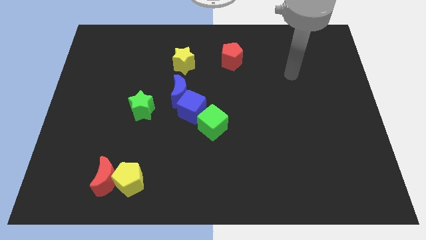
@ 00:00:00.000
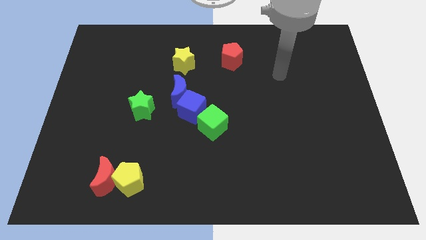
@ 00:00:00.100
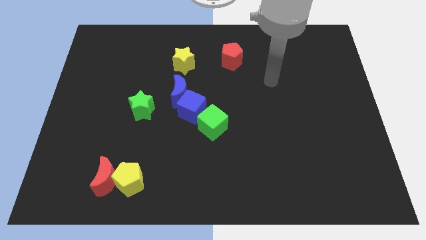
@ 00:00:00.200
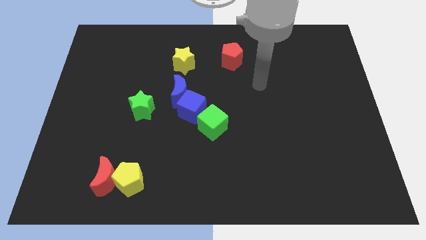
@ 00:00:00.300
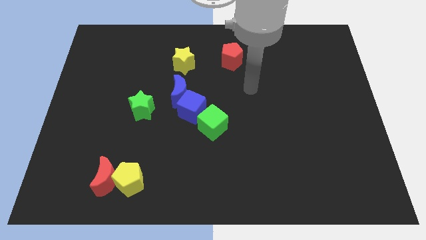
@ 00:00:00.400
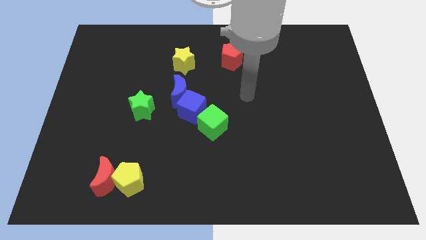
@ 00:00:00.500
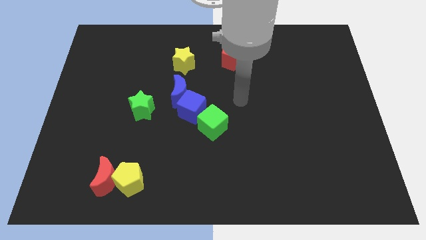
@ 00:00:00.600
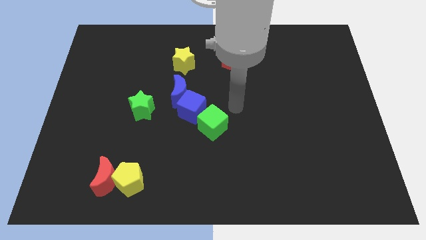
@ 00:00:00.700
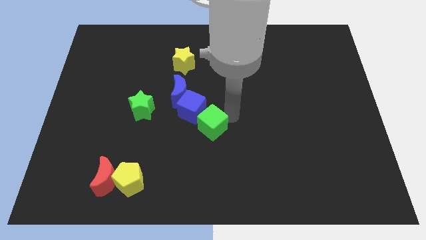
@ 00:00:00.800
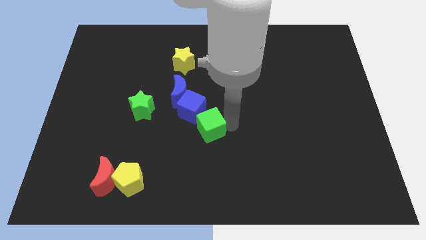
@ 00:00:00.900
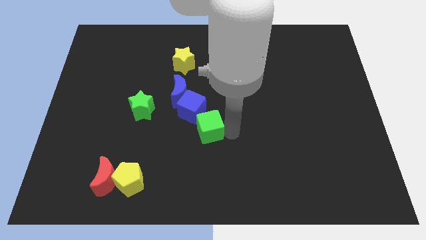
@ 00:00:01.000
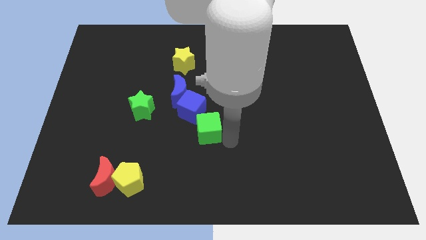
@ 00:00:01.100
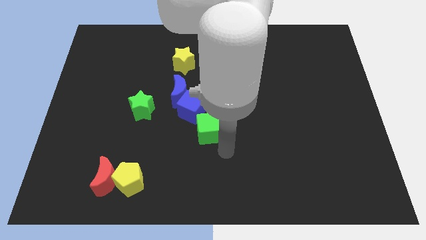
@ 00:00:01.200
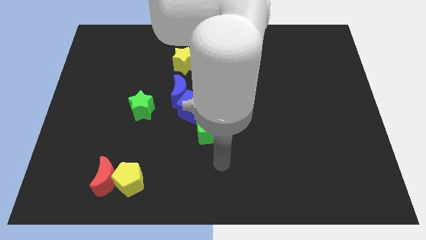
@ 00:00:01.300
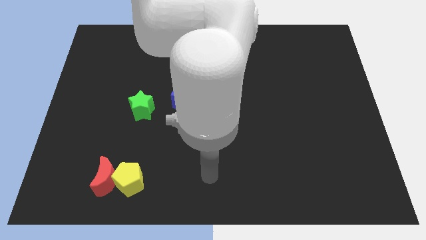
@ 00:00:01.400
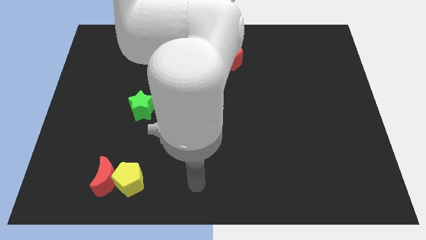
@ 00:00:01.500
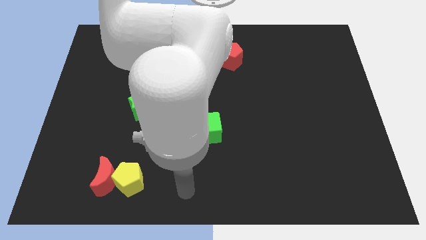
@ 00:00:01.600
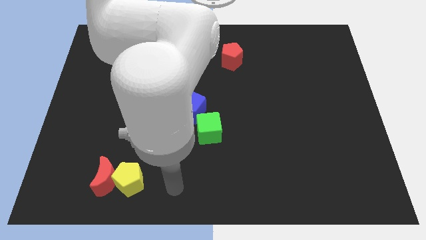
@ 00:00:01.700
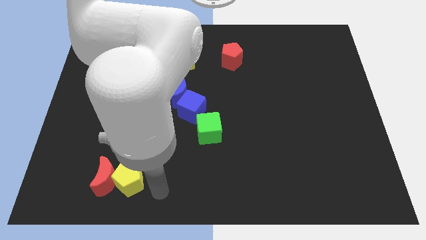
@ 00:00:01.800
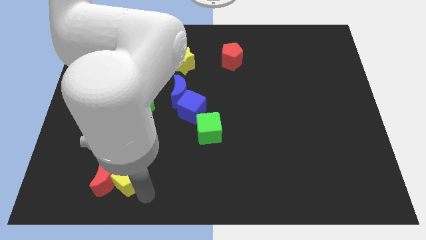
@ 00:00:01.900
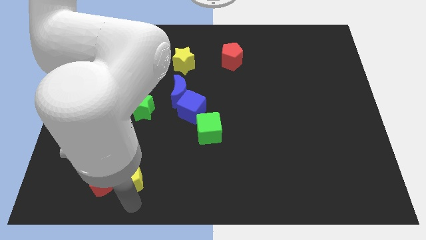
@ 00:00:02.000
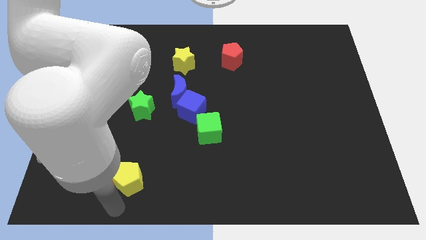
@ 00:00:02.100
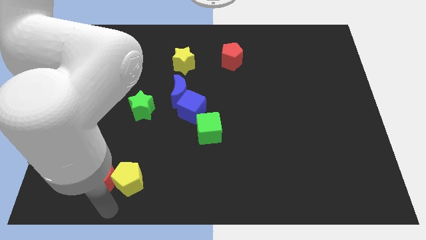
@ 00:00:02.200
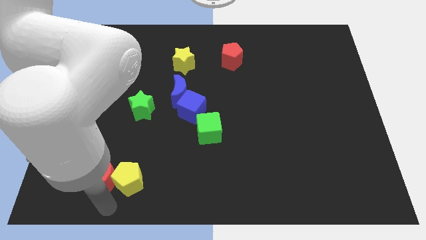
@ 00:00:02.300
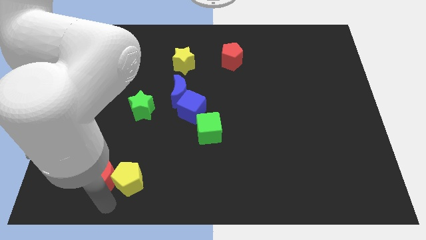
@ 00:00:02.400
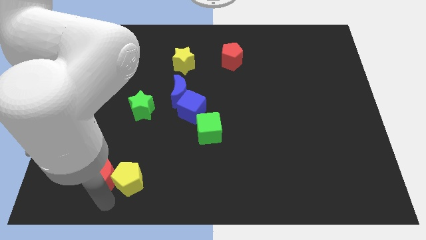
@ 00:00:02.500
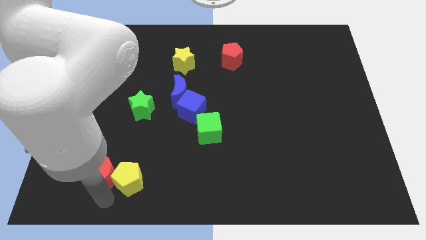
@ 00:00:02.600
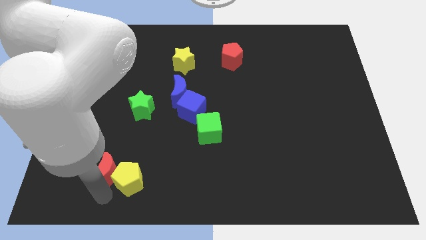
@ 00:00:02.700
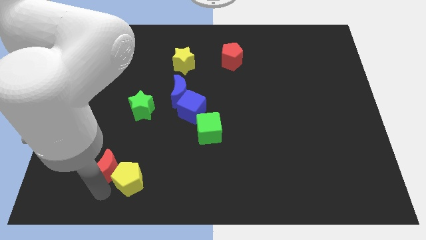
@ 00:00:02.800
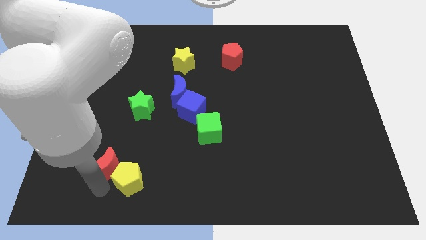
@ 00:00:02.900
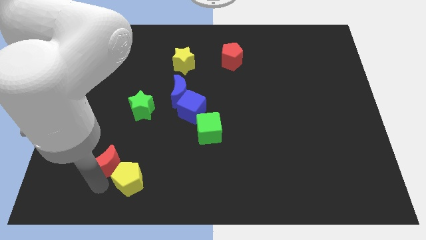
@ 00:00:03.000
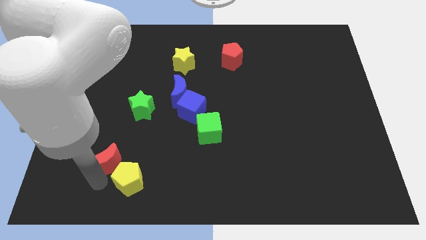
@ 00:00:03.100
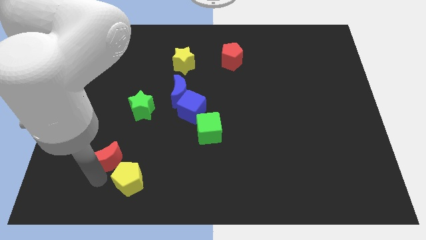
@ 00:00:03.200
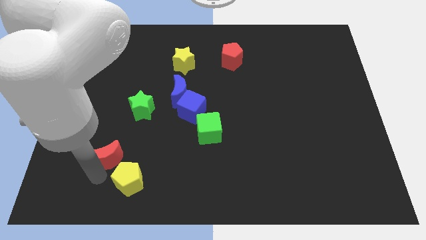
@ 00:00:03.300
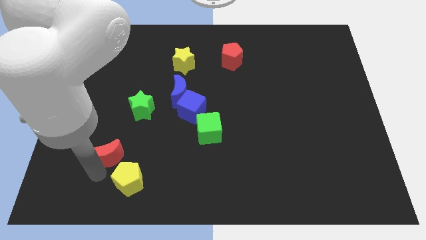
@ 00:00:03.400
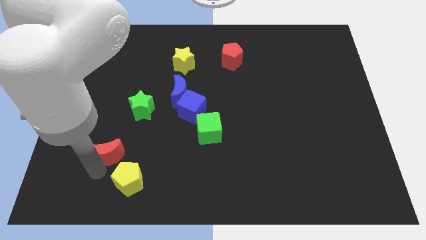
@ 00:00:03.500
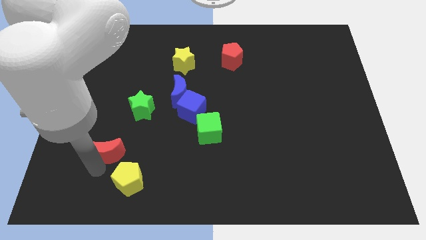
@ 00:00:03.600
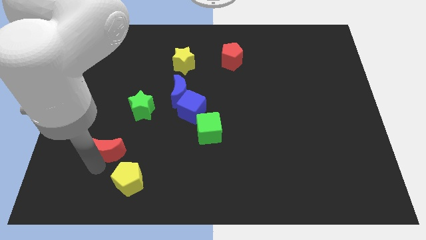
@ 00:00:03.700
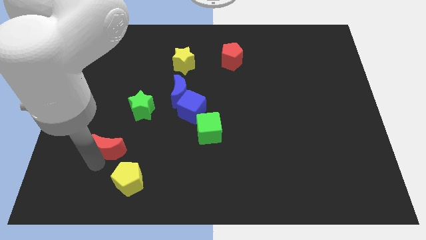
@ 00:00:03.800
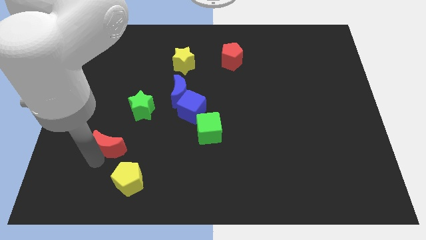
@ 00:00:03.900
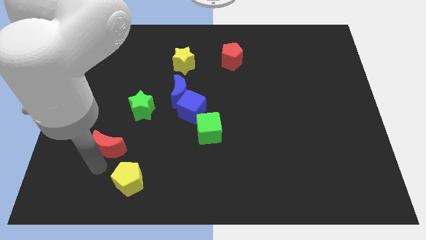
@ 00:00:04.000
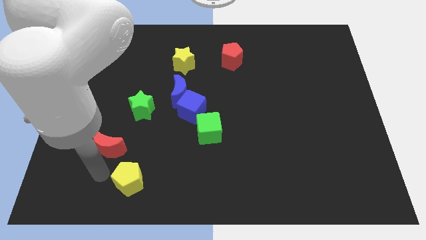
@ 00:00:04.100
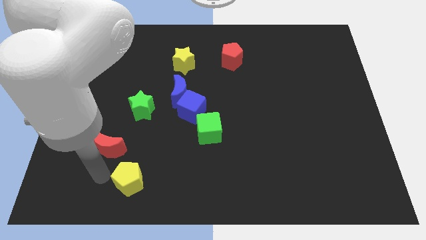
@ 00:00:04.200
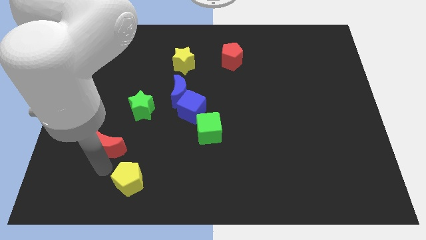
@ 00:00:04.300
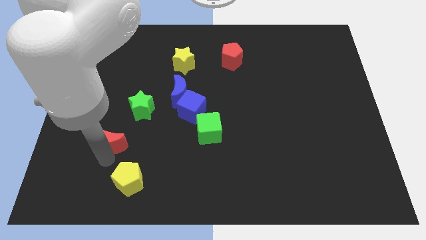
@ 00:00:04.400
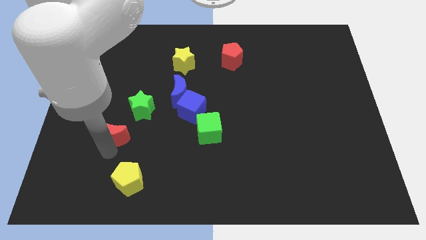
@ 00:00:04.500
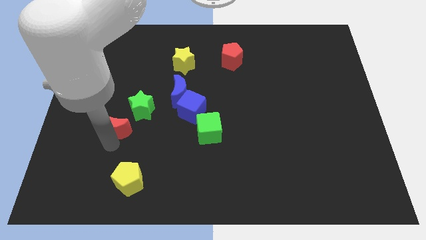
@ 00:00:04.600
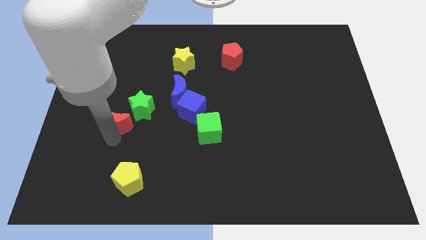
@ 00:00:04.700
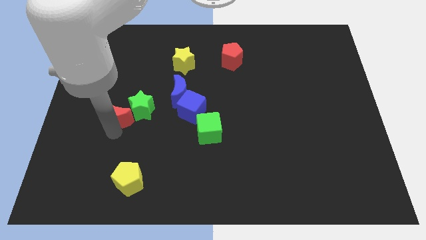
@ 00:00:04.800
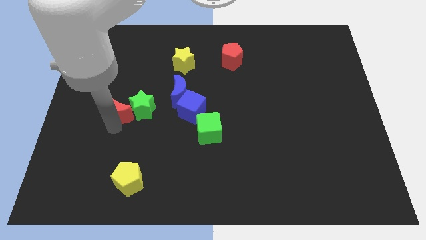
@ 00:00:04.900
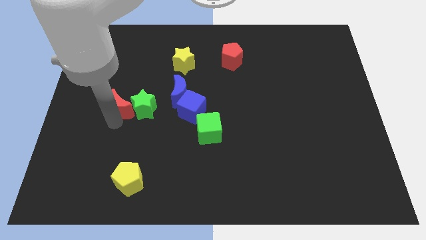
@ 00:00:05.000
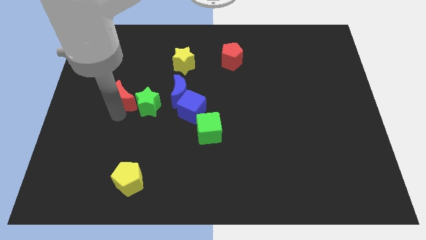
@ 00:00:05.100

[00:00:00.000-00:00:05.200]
slide the red moon up

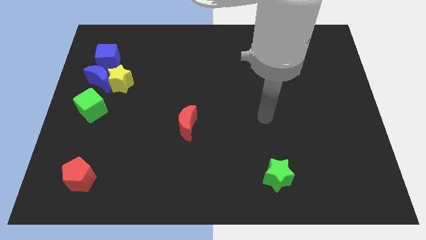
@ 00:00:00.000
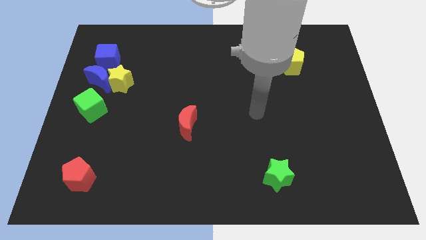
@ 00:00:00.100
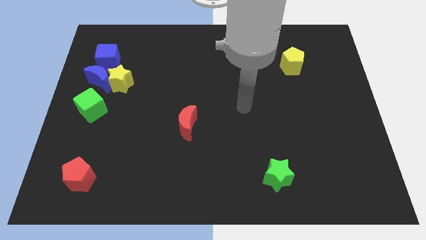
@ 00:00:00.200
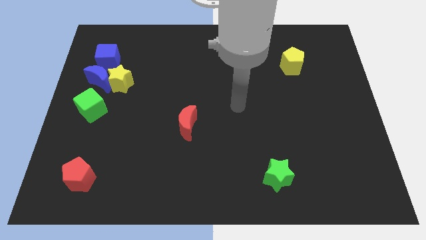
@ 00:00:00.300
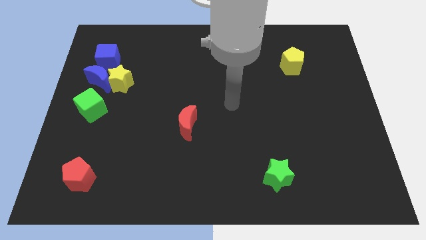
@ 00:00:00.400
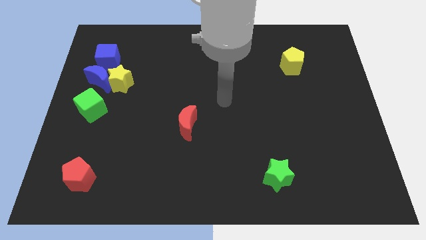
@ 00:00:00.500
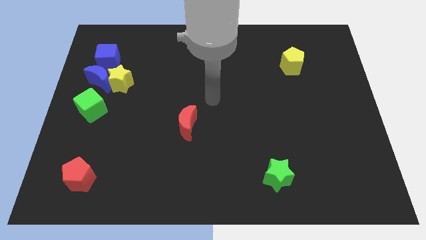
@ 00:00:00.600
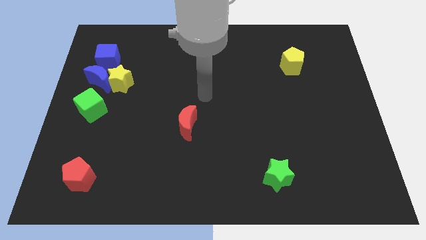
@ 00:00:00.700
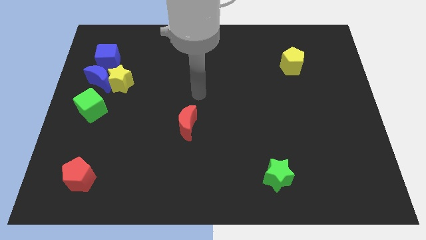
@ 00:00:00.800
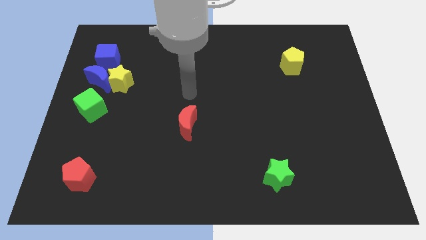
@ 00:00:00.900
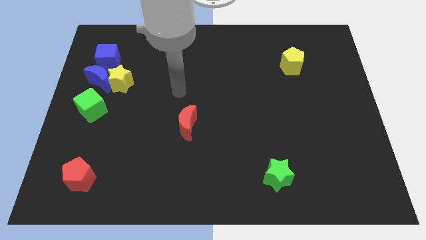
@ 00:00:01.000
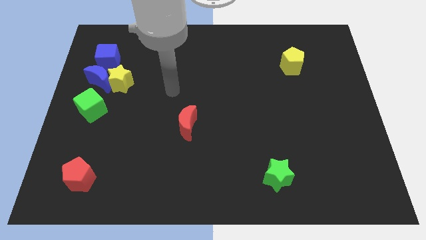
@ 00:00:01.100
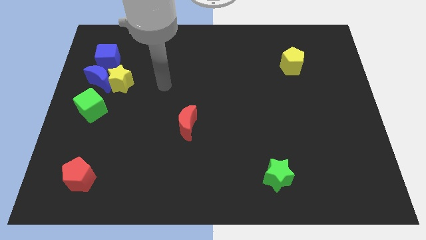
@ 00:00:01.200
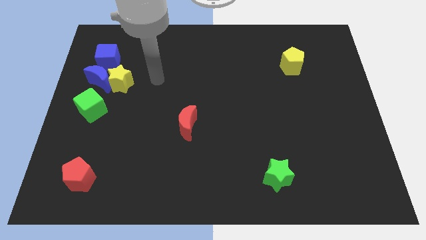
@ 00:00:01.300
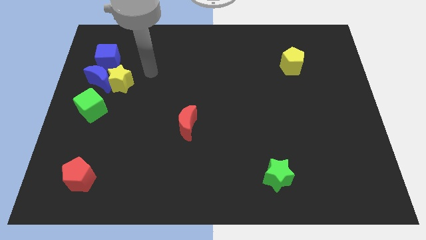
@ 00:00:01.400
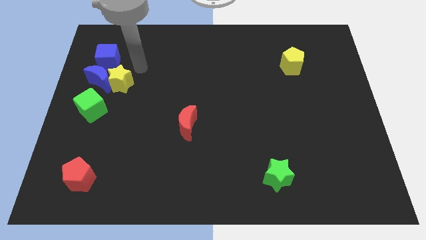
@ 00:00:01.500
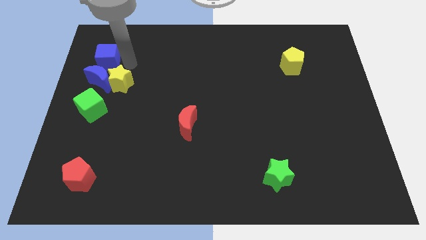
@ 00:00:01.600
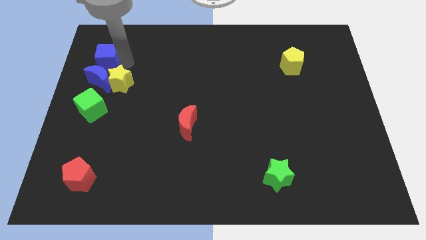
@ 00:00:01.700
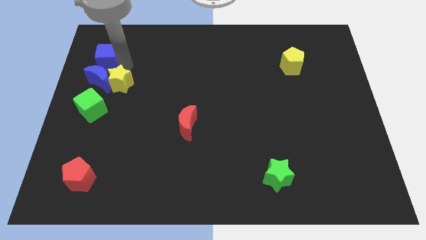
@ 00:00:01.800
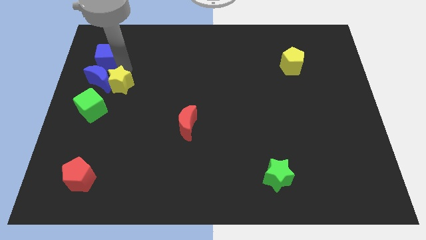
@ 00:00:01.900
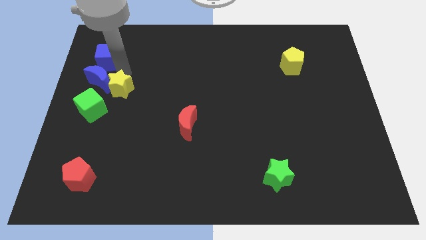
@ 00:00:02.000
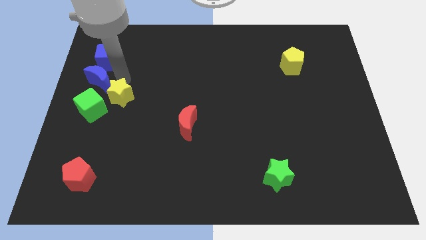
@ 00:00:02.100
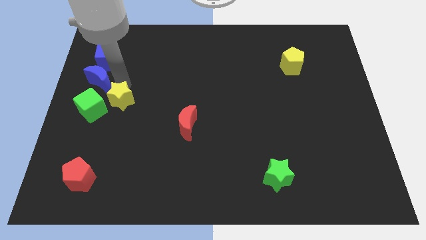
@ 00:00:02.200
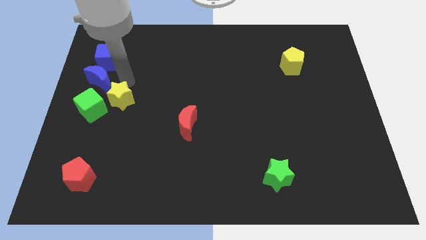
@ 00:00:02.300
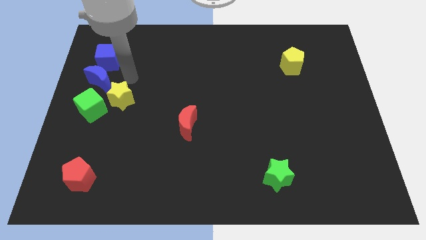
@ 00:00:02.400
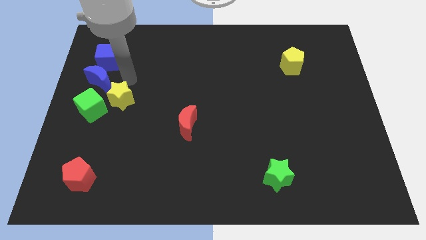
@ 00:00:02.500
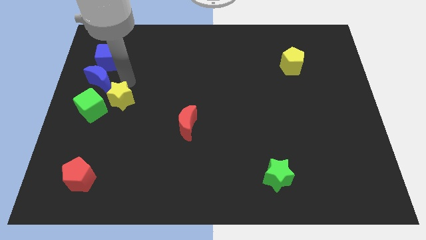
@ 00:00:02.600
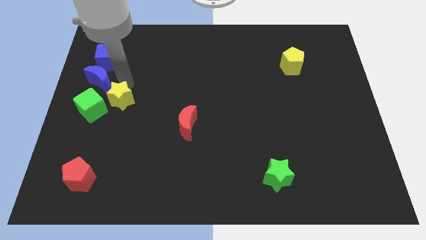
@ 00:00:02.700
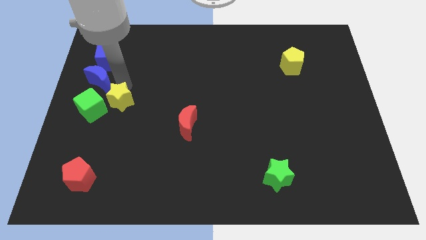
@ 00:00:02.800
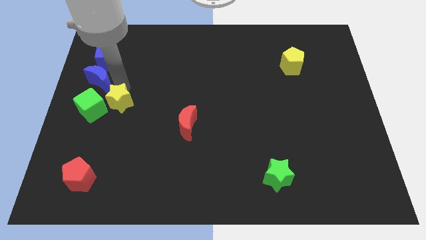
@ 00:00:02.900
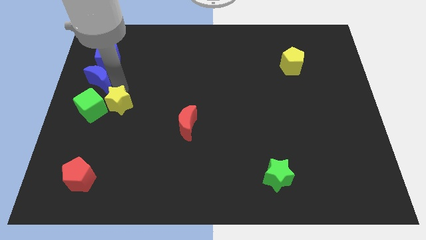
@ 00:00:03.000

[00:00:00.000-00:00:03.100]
push the yellow star down slightly
